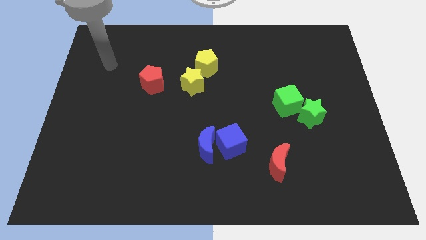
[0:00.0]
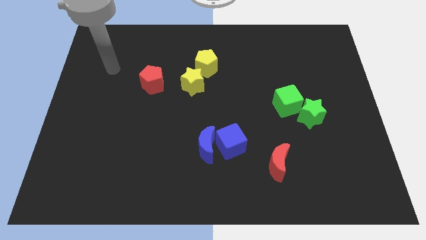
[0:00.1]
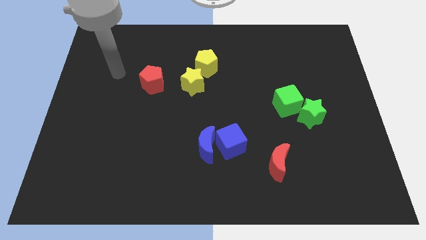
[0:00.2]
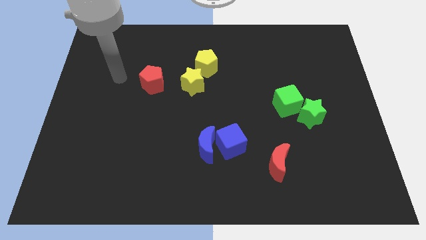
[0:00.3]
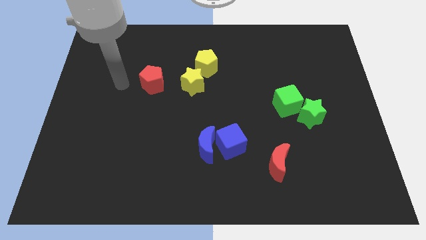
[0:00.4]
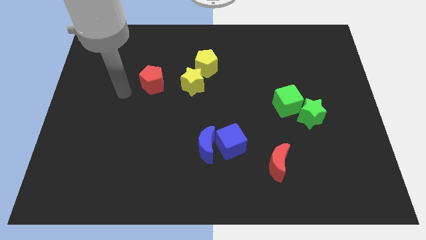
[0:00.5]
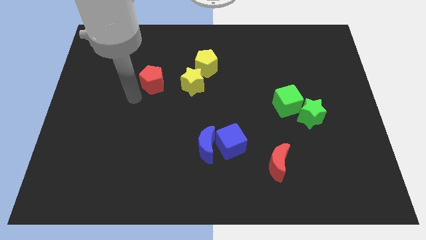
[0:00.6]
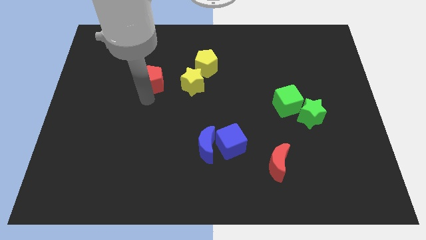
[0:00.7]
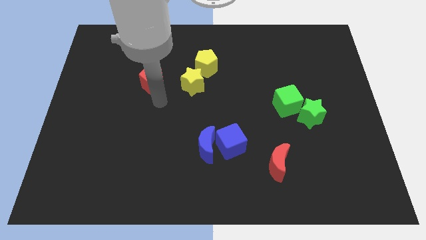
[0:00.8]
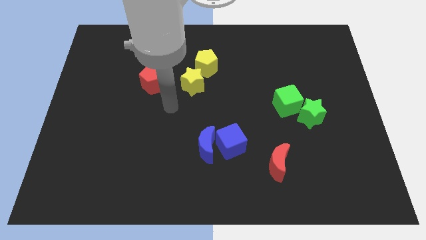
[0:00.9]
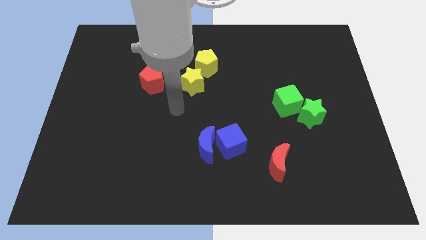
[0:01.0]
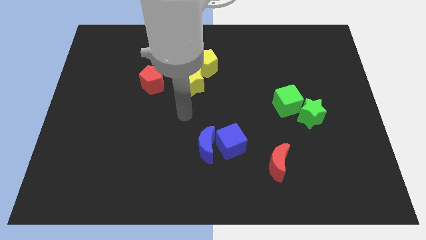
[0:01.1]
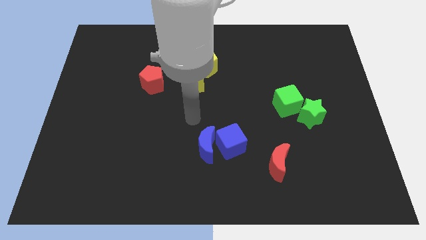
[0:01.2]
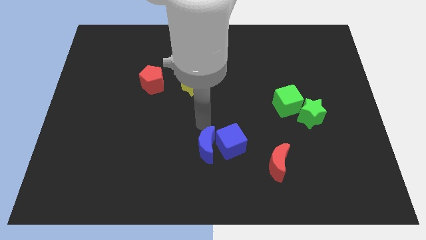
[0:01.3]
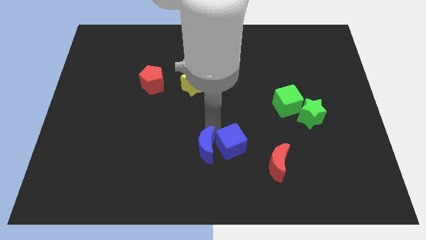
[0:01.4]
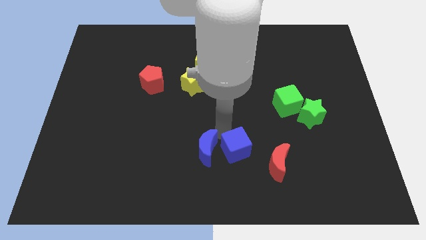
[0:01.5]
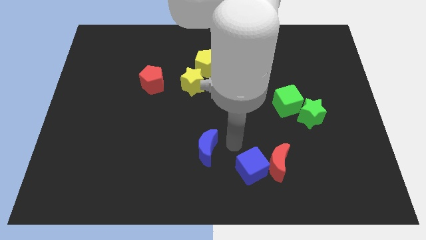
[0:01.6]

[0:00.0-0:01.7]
pull the blue moon apart from the blue cube

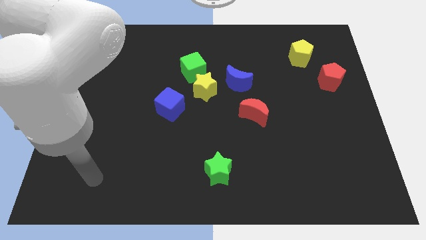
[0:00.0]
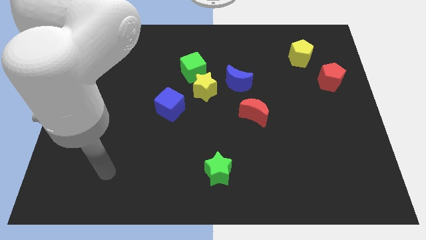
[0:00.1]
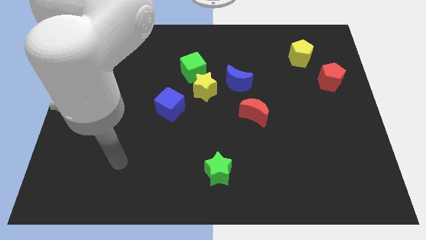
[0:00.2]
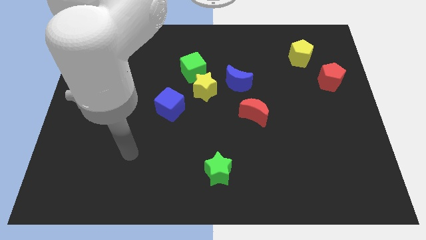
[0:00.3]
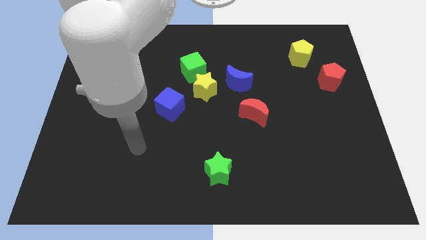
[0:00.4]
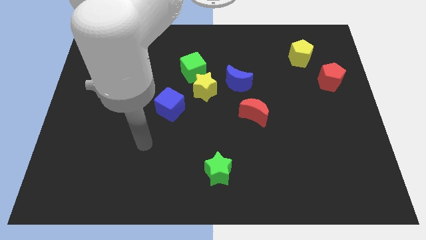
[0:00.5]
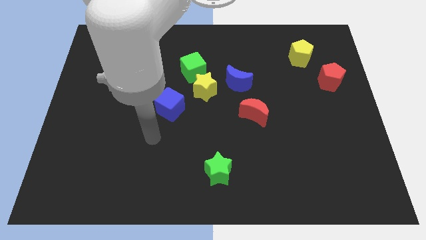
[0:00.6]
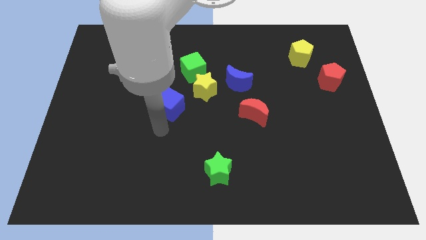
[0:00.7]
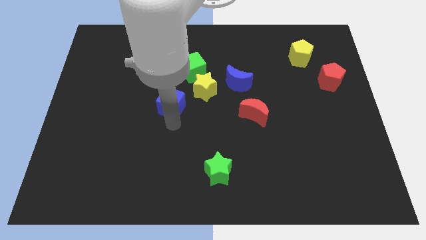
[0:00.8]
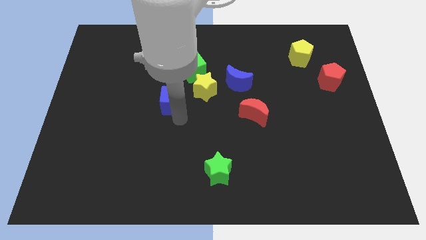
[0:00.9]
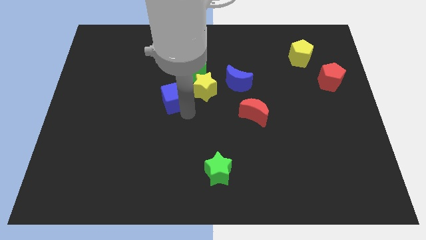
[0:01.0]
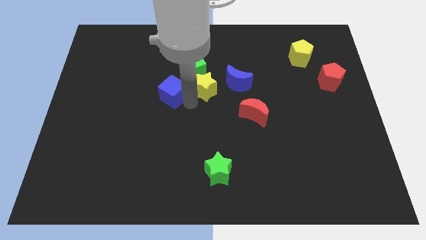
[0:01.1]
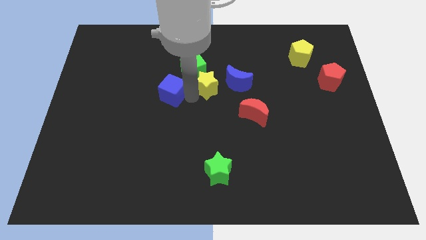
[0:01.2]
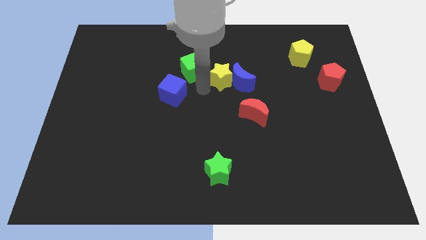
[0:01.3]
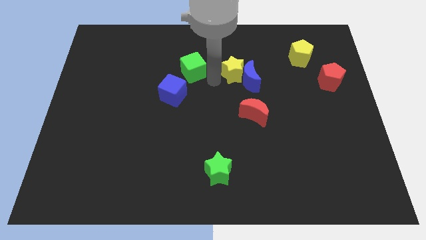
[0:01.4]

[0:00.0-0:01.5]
move the green cube away from the yellow star

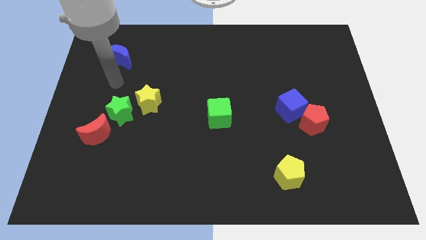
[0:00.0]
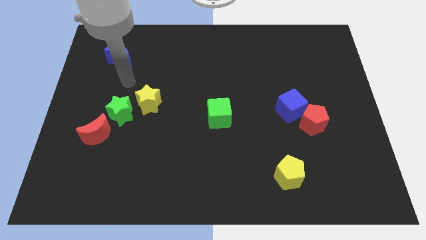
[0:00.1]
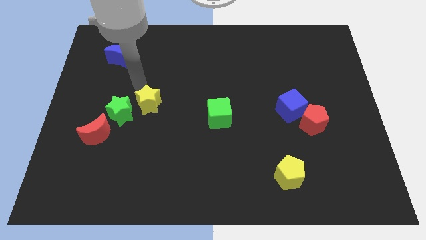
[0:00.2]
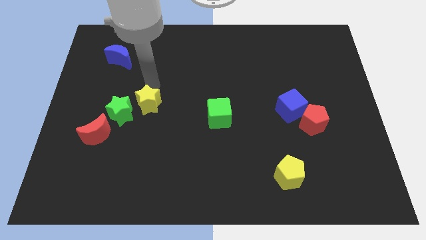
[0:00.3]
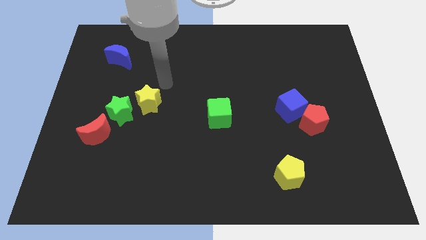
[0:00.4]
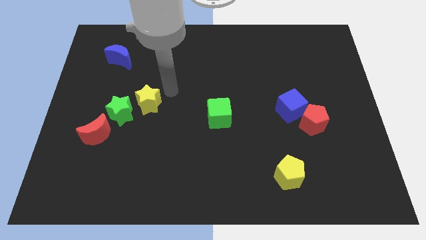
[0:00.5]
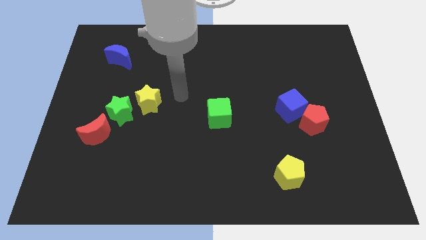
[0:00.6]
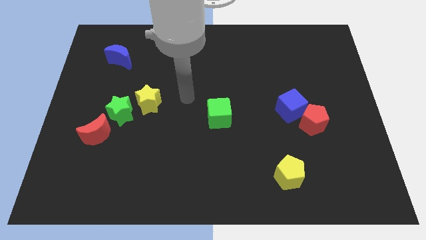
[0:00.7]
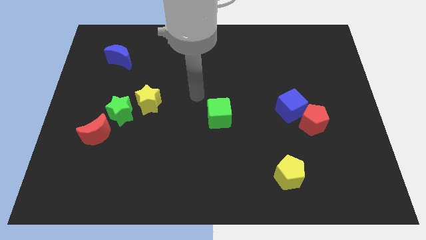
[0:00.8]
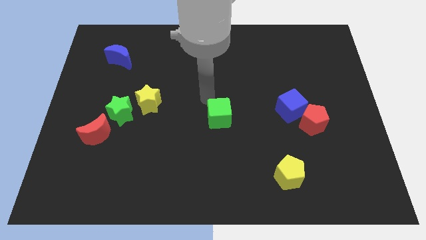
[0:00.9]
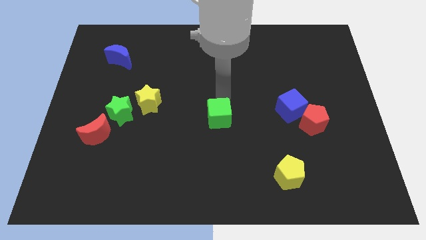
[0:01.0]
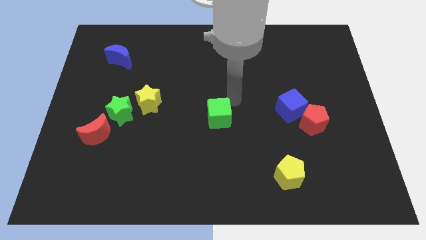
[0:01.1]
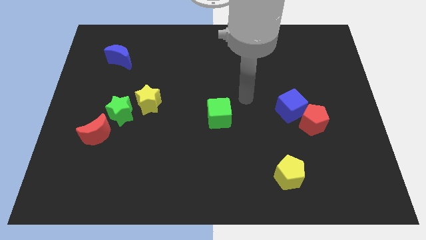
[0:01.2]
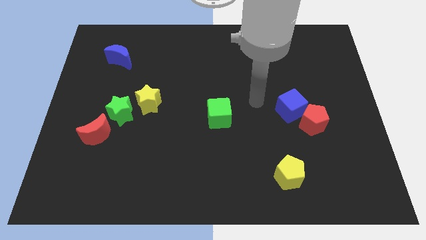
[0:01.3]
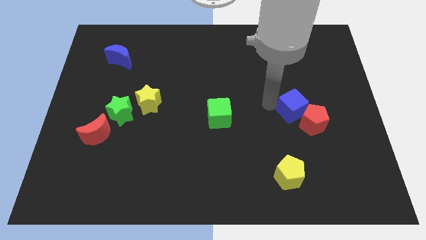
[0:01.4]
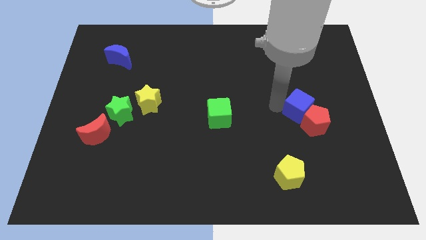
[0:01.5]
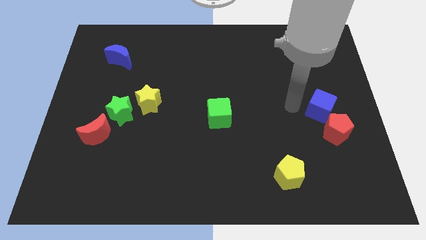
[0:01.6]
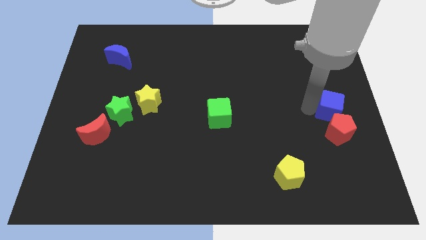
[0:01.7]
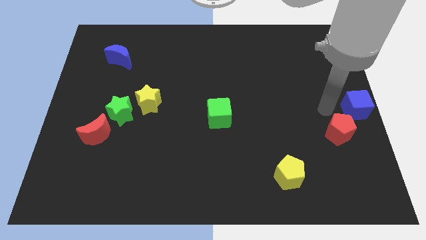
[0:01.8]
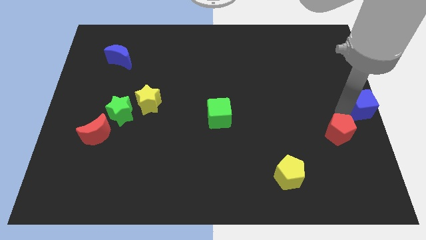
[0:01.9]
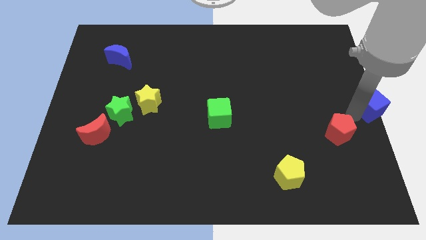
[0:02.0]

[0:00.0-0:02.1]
pull the red pentagon apart from the blue cube

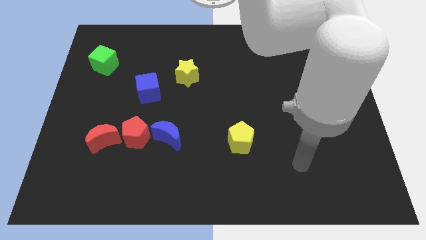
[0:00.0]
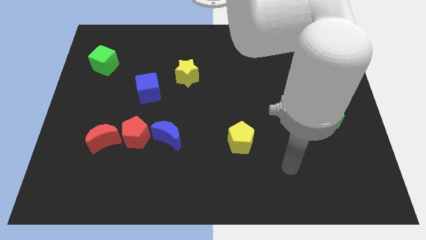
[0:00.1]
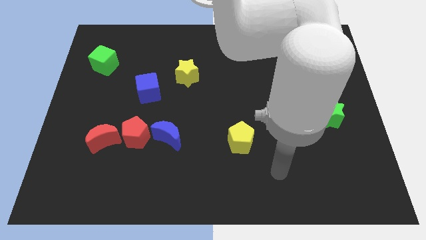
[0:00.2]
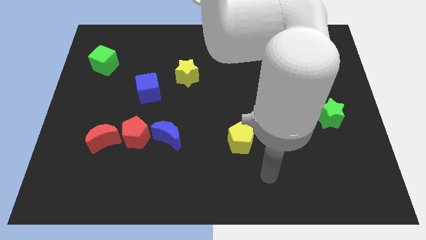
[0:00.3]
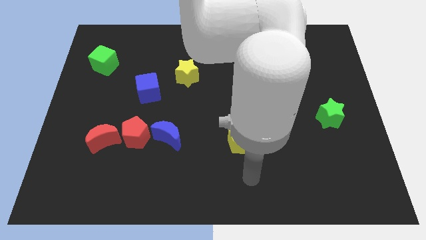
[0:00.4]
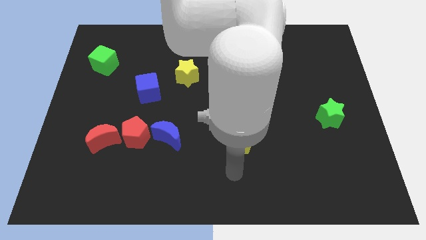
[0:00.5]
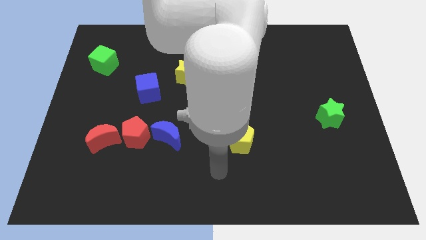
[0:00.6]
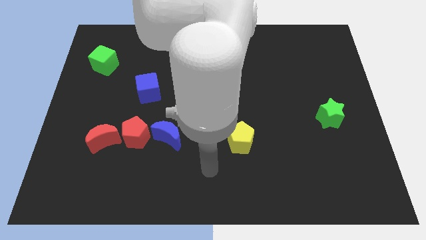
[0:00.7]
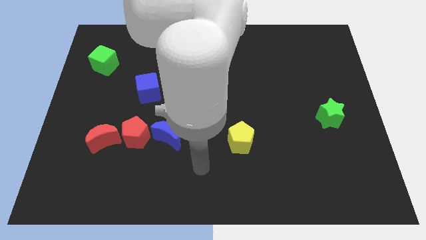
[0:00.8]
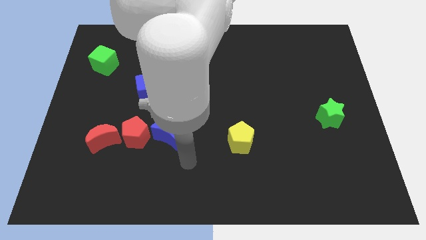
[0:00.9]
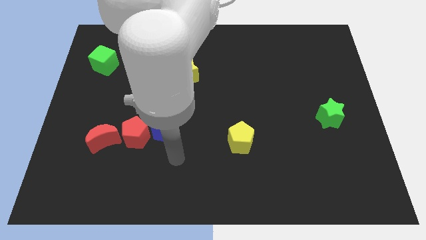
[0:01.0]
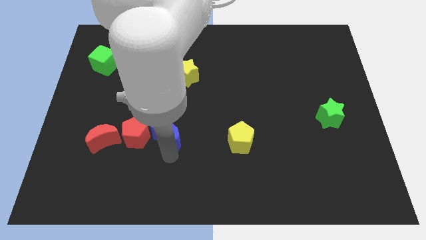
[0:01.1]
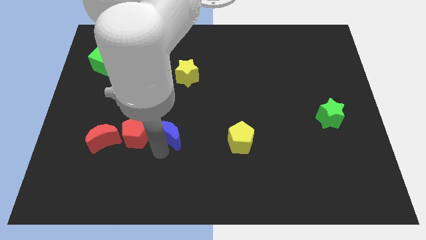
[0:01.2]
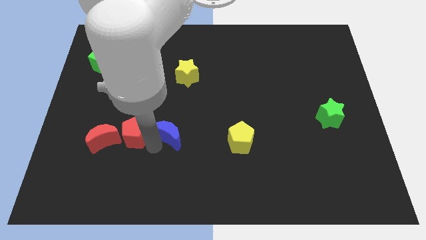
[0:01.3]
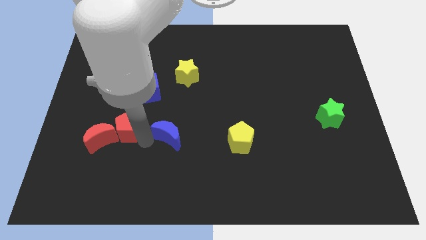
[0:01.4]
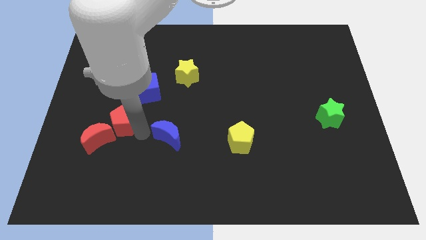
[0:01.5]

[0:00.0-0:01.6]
separate the blue moon from the red pentagon

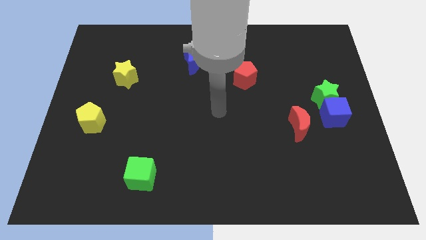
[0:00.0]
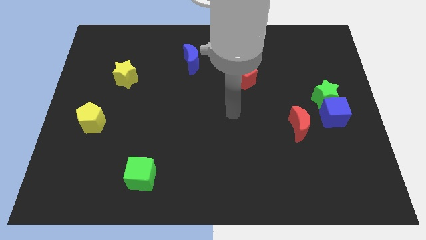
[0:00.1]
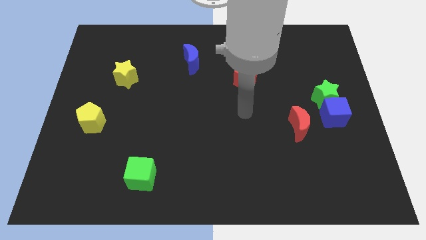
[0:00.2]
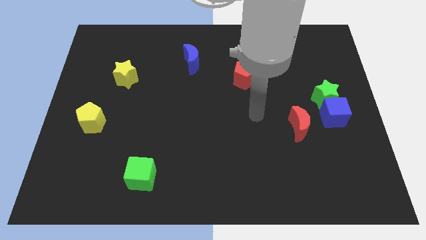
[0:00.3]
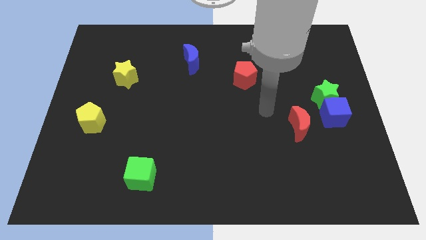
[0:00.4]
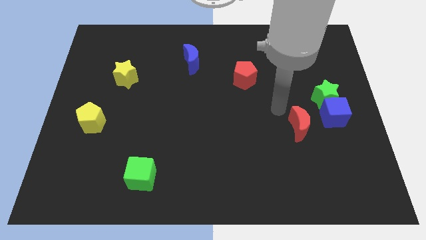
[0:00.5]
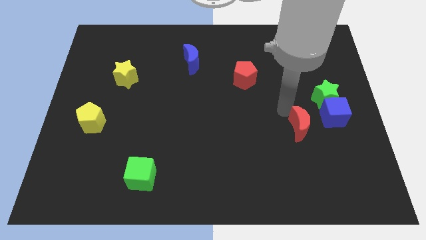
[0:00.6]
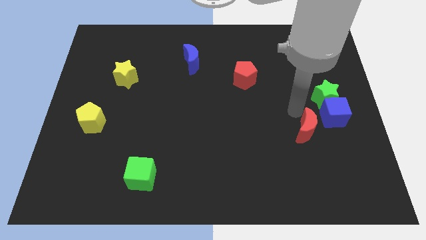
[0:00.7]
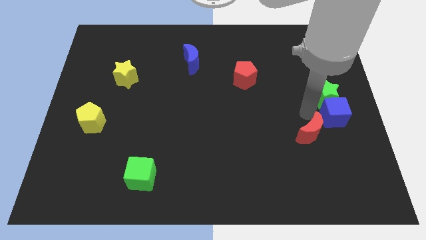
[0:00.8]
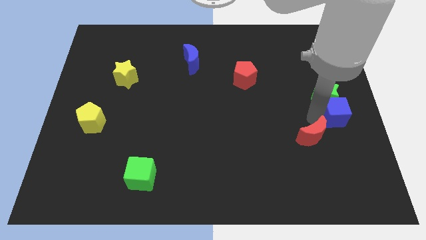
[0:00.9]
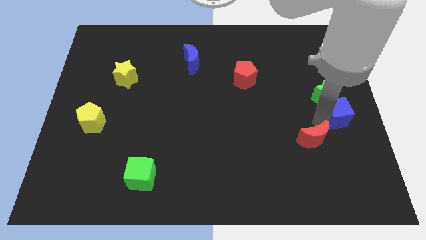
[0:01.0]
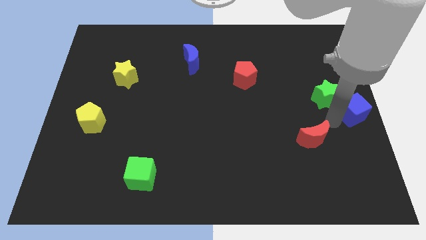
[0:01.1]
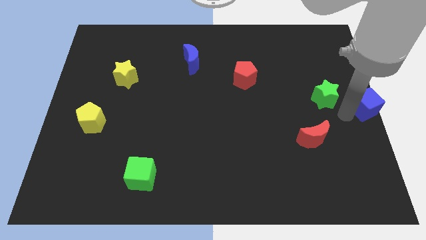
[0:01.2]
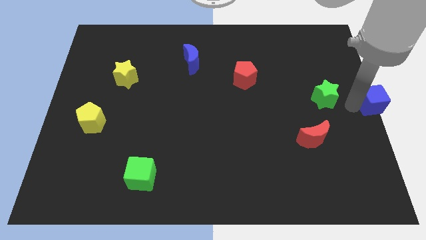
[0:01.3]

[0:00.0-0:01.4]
move the green star away from the blue cube

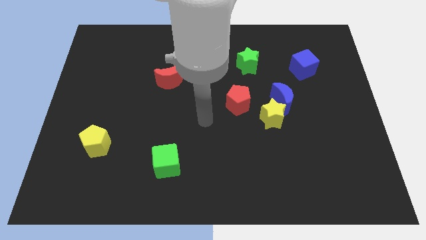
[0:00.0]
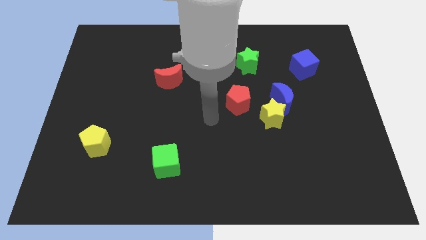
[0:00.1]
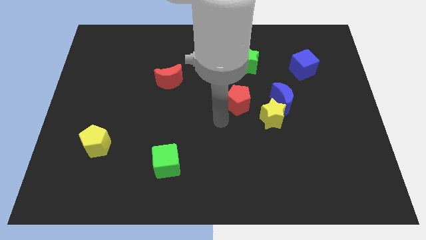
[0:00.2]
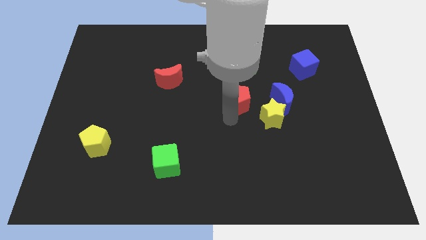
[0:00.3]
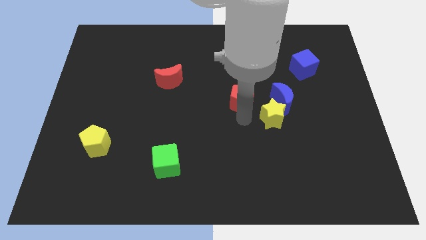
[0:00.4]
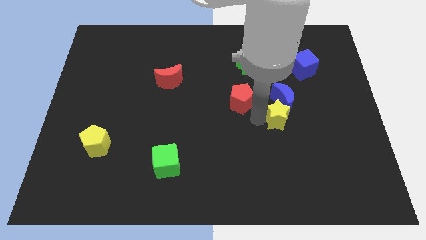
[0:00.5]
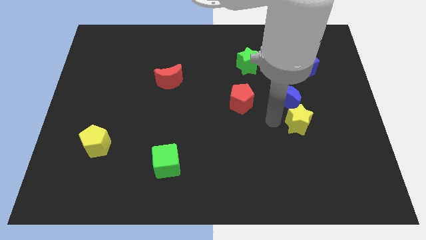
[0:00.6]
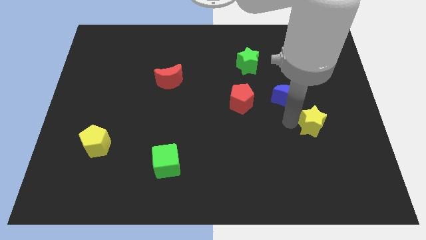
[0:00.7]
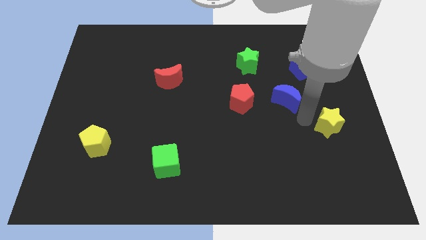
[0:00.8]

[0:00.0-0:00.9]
pull the blue moon apart from the yellow star
